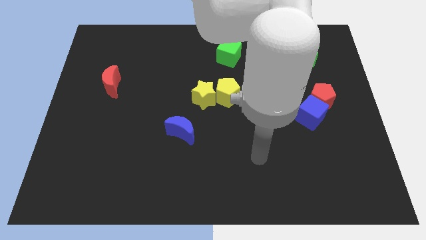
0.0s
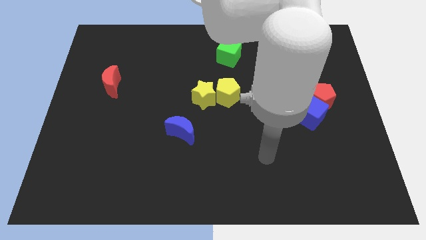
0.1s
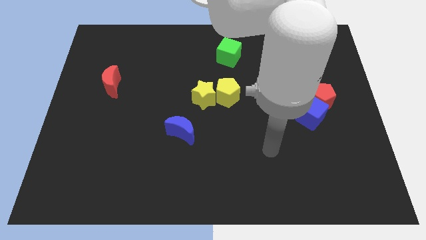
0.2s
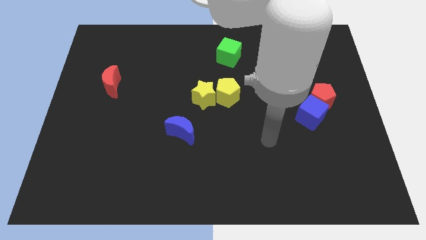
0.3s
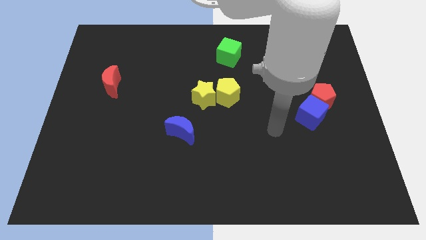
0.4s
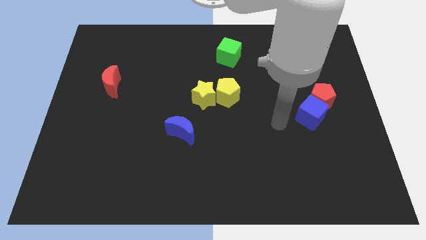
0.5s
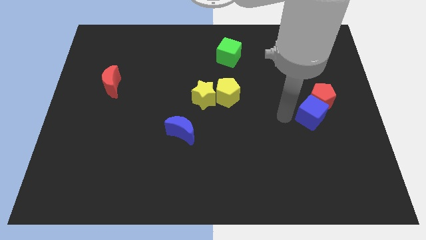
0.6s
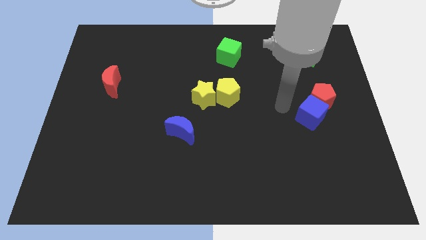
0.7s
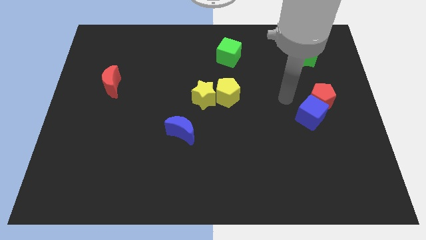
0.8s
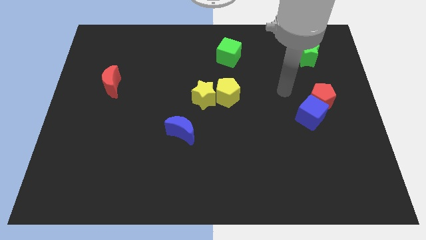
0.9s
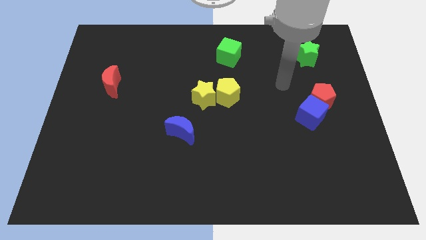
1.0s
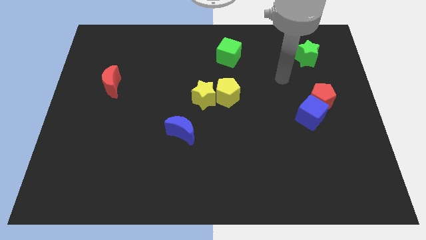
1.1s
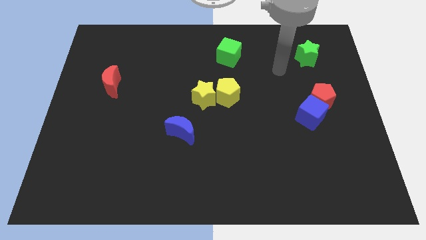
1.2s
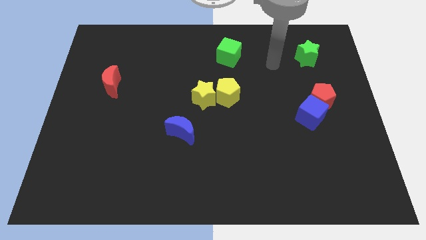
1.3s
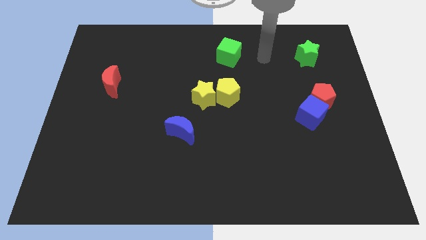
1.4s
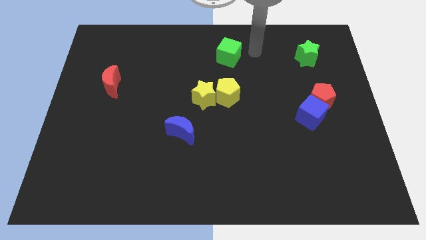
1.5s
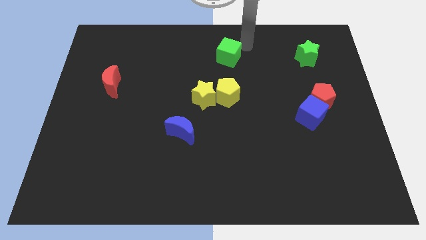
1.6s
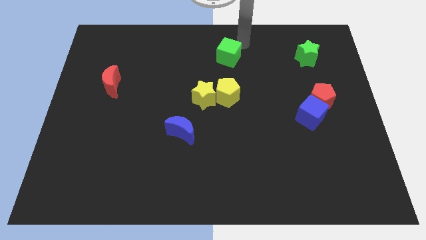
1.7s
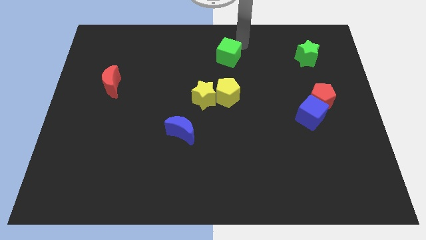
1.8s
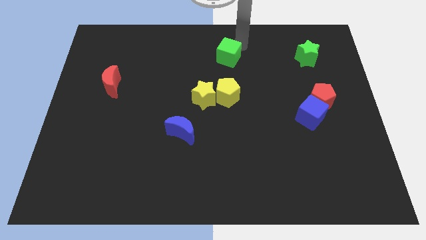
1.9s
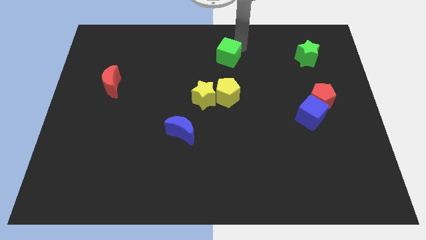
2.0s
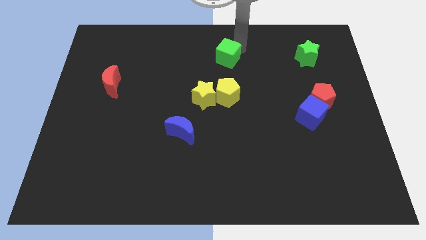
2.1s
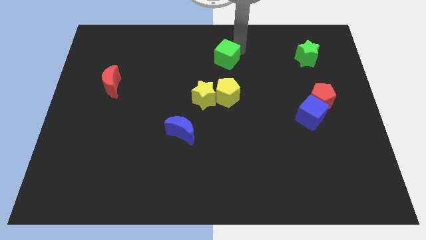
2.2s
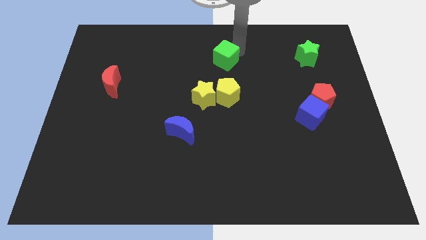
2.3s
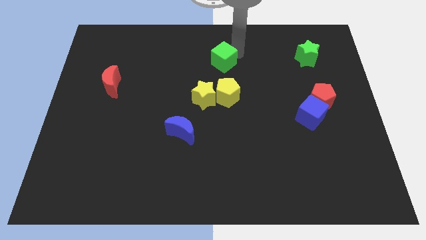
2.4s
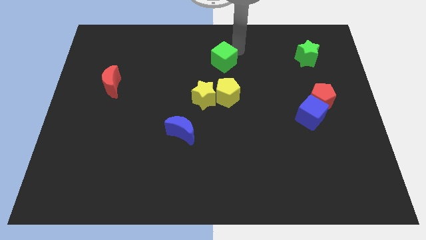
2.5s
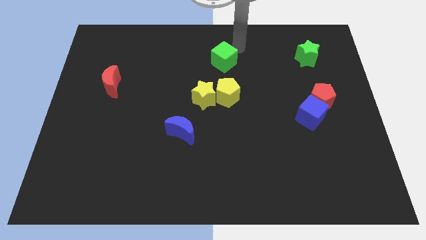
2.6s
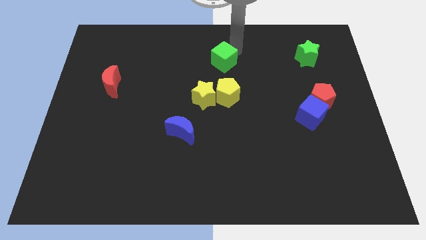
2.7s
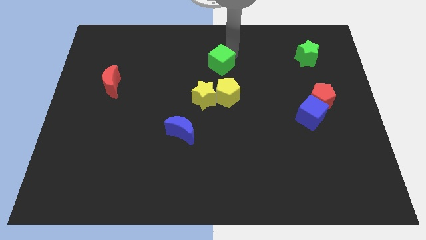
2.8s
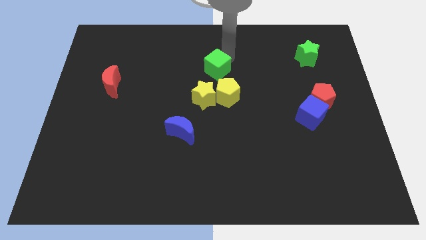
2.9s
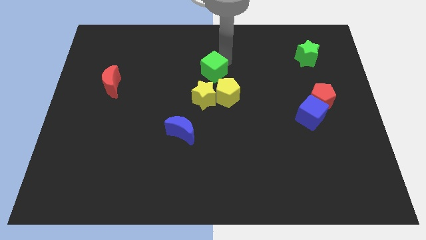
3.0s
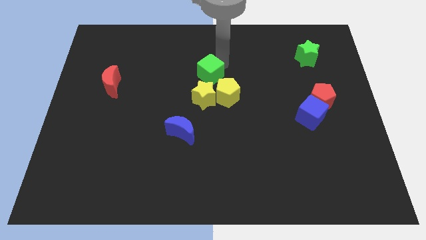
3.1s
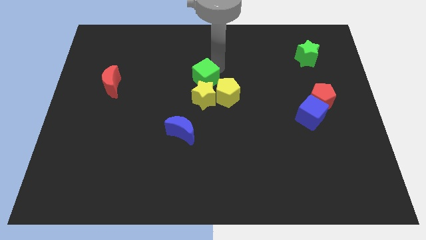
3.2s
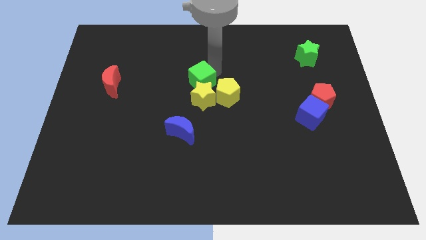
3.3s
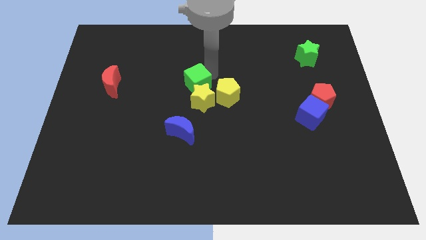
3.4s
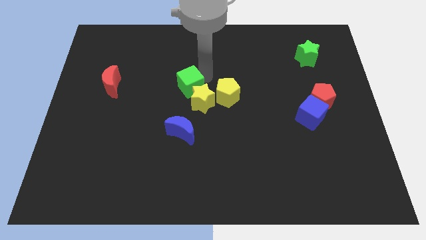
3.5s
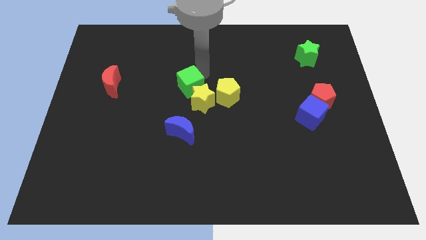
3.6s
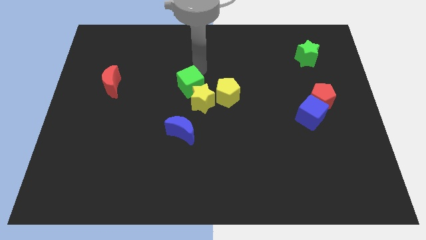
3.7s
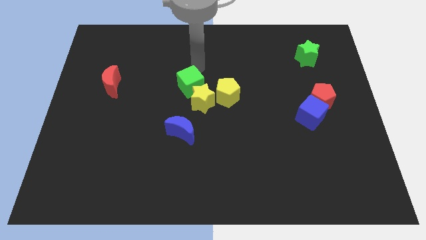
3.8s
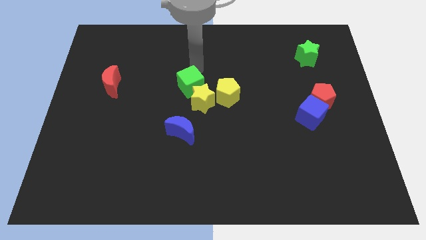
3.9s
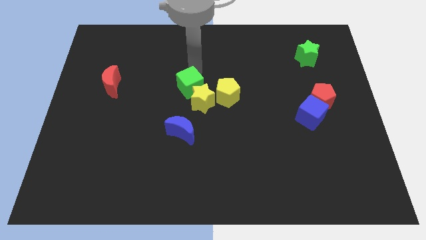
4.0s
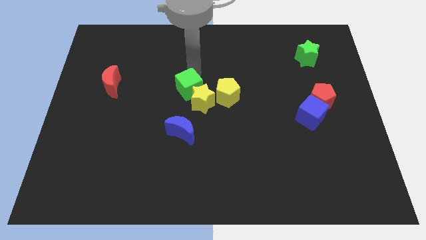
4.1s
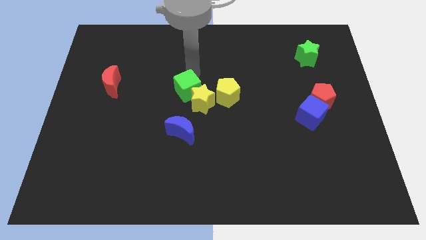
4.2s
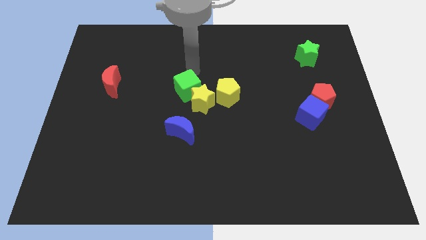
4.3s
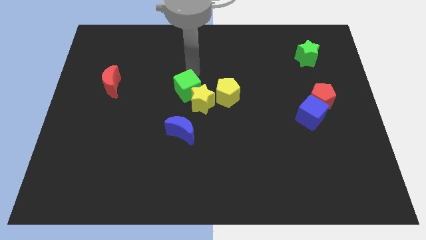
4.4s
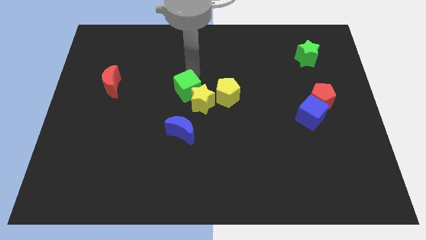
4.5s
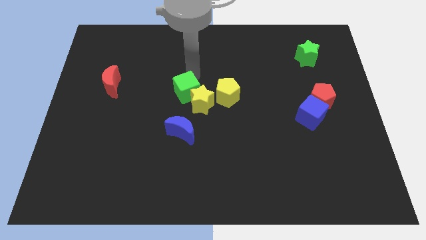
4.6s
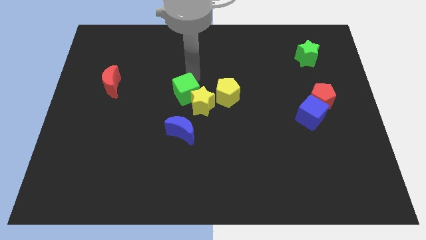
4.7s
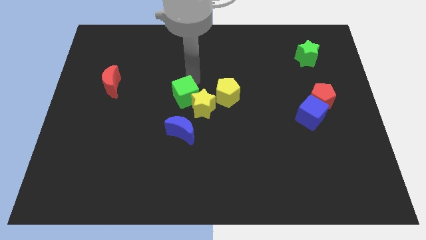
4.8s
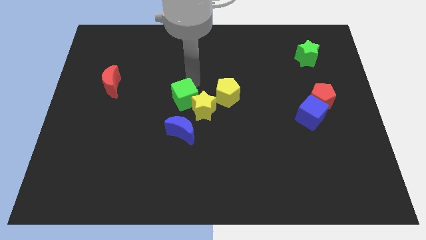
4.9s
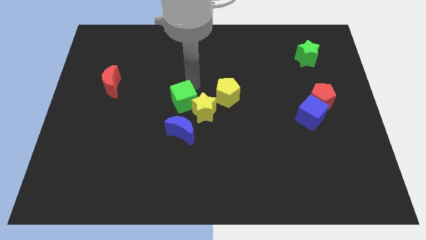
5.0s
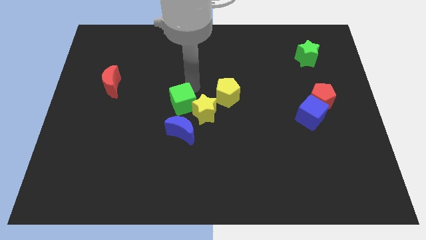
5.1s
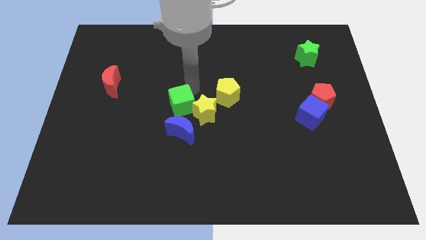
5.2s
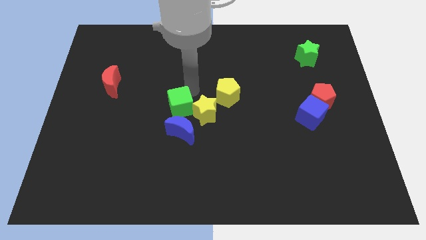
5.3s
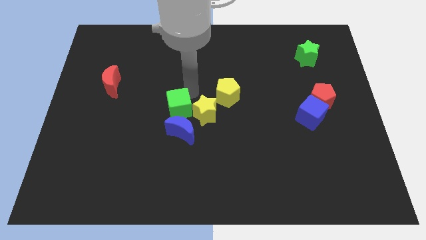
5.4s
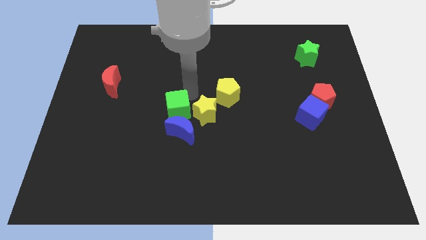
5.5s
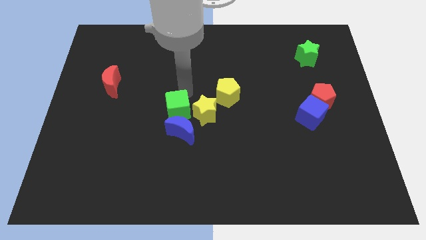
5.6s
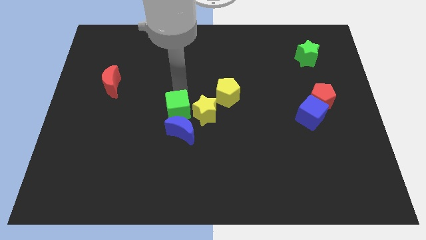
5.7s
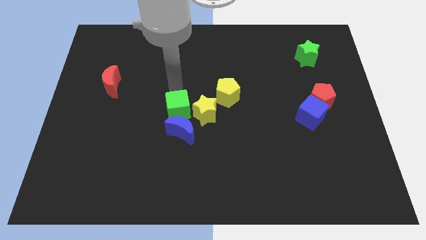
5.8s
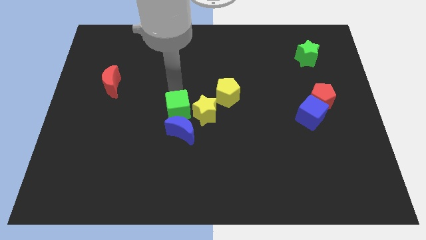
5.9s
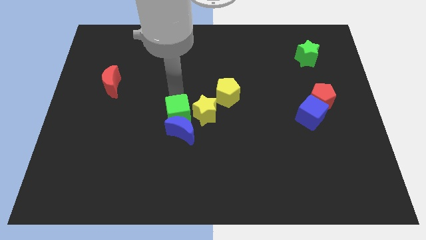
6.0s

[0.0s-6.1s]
move the green cube close to the blue moon

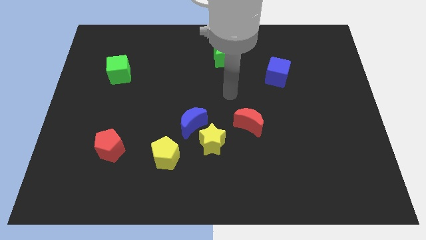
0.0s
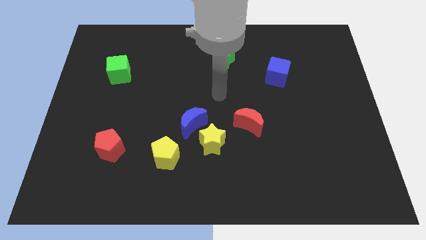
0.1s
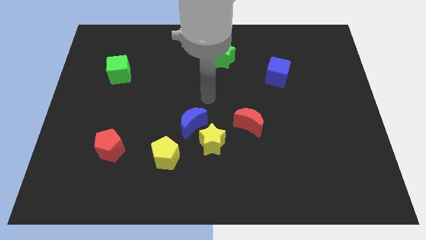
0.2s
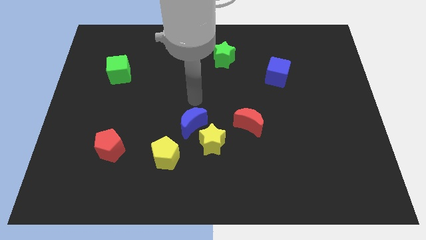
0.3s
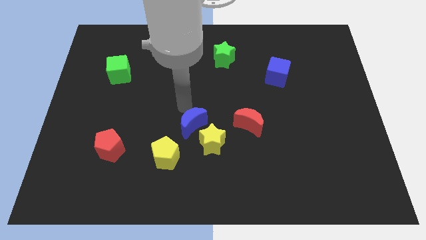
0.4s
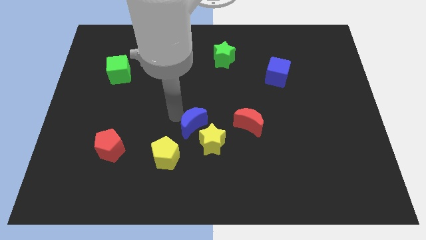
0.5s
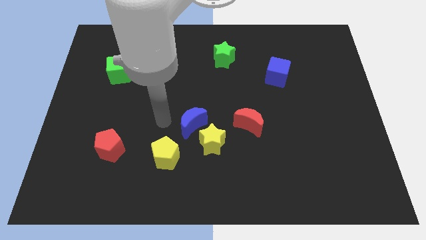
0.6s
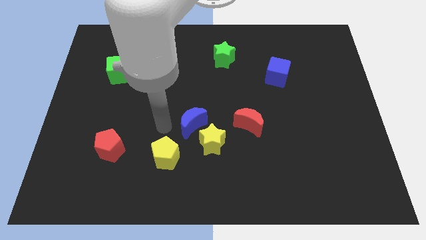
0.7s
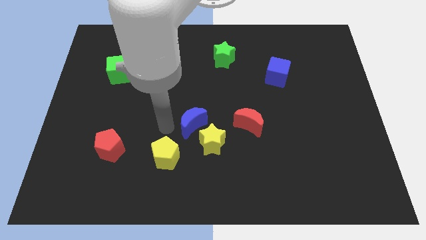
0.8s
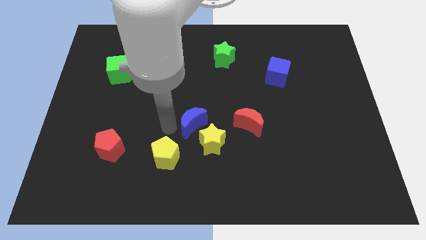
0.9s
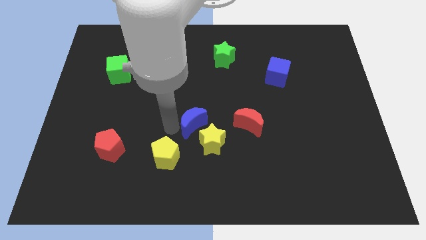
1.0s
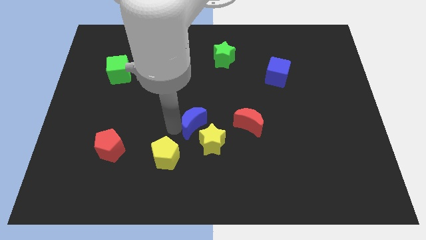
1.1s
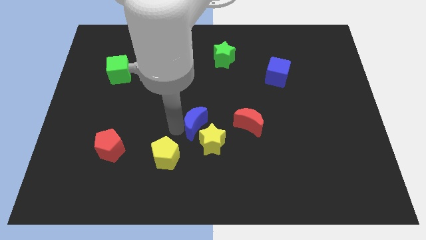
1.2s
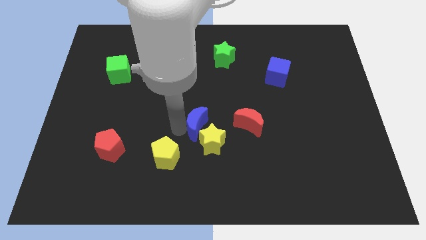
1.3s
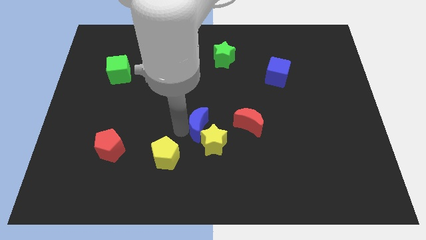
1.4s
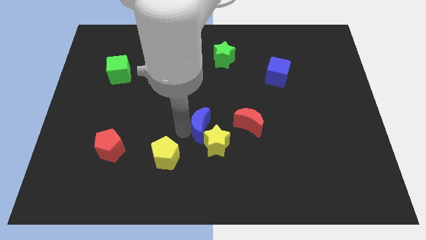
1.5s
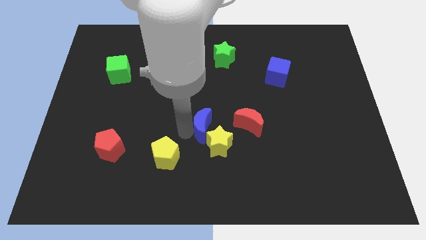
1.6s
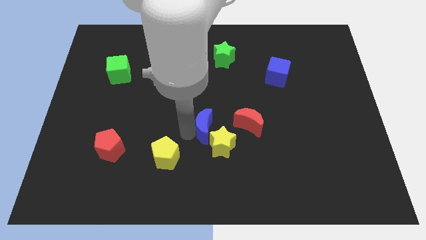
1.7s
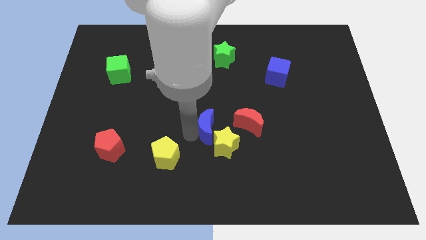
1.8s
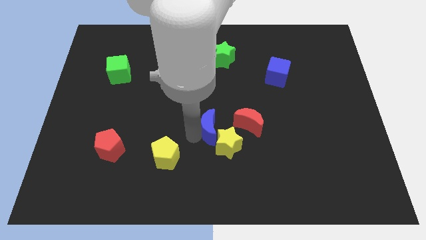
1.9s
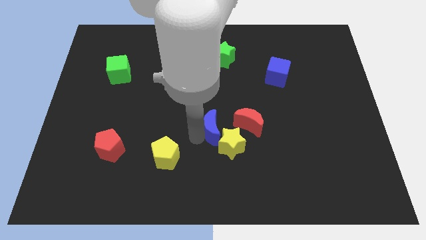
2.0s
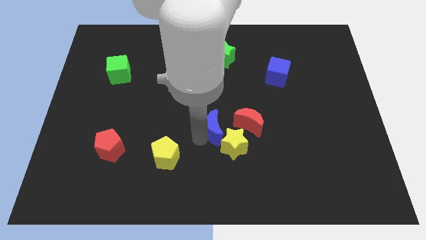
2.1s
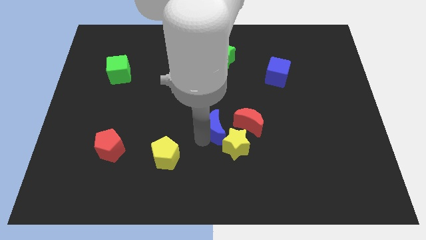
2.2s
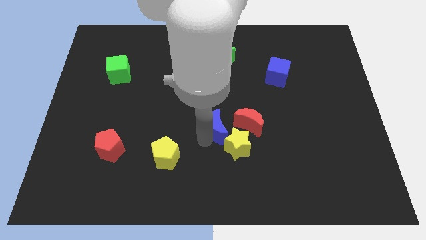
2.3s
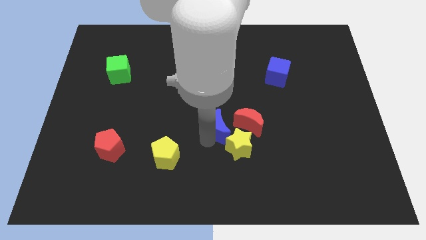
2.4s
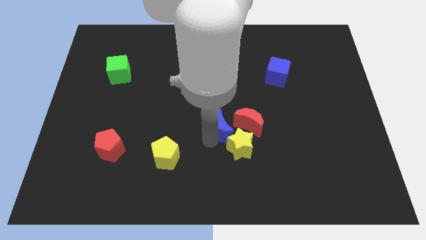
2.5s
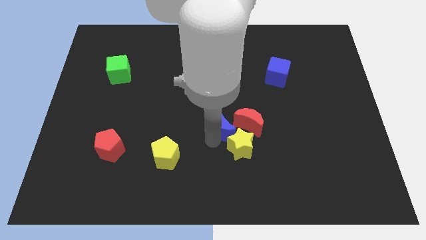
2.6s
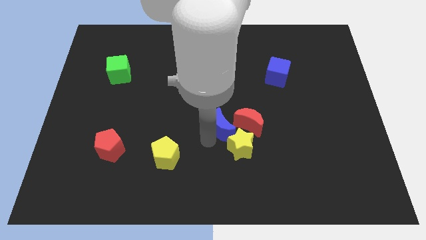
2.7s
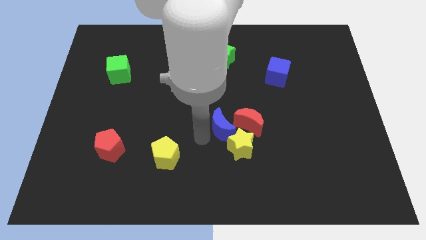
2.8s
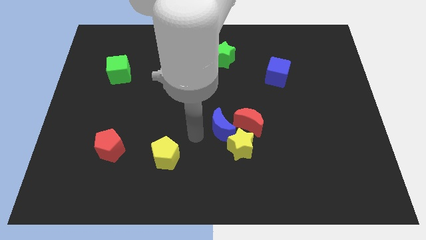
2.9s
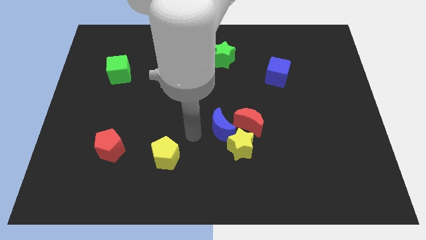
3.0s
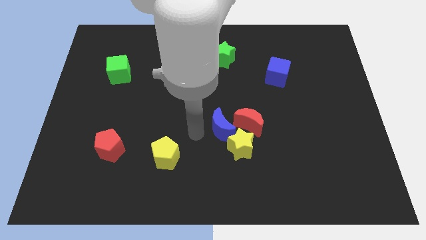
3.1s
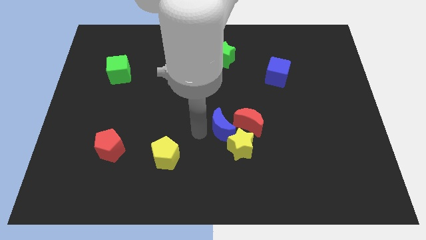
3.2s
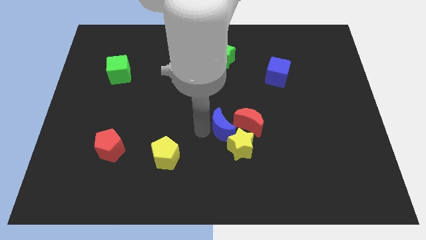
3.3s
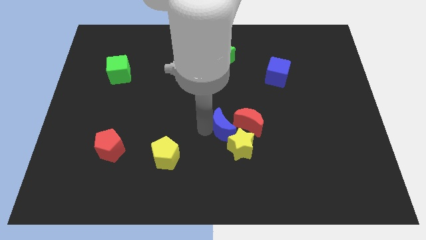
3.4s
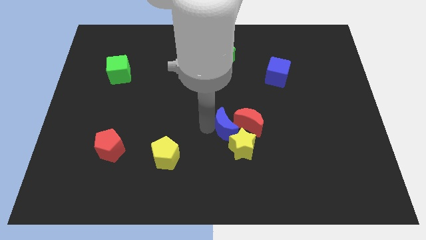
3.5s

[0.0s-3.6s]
put the blue moon towards the red moon
